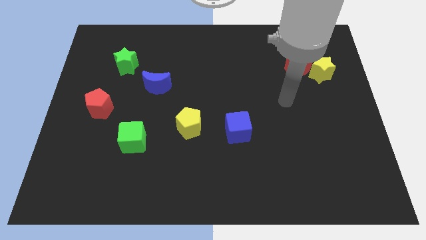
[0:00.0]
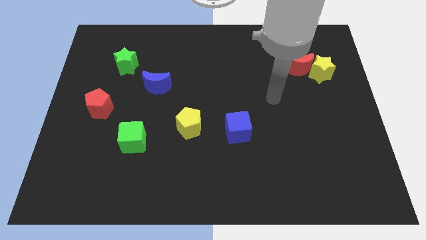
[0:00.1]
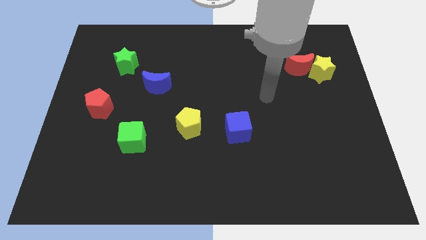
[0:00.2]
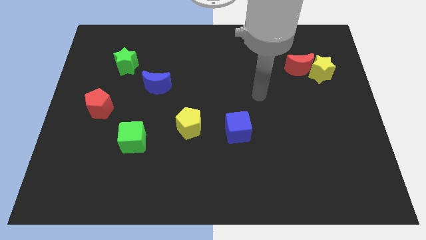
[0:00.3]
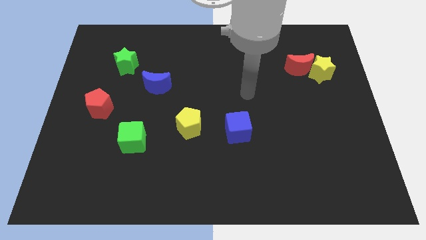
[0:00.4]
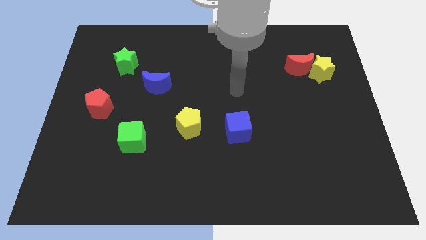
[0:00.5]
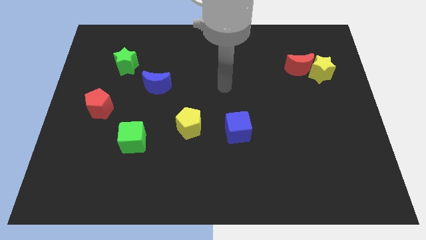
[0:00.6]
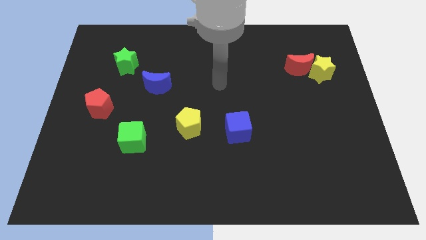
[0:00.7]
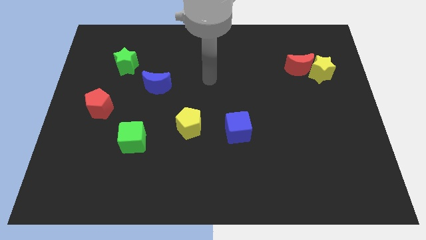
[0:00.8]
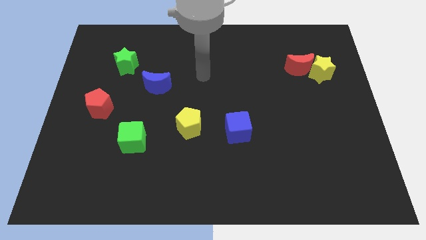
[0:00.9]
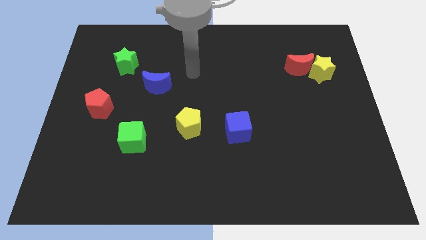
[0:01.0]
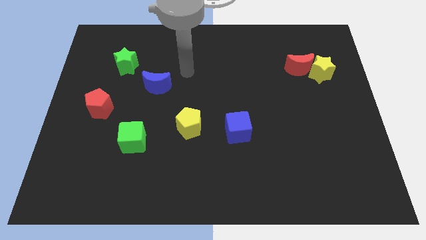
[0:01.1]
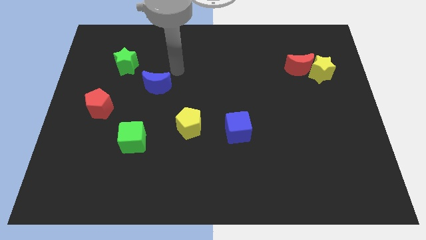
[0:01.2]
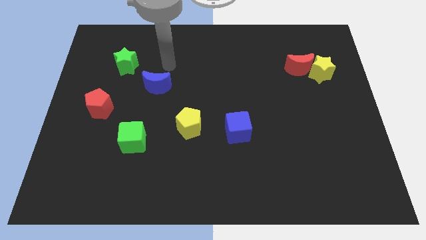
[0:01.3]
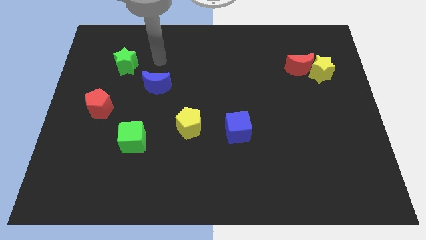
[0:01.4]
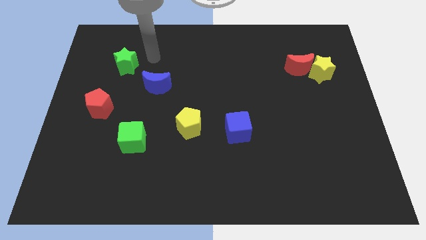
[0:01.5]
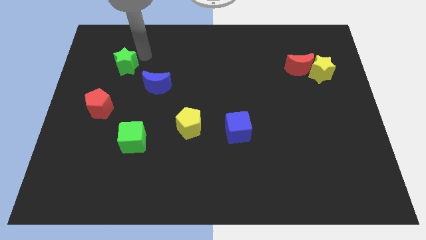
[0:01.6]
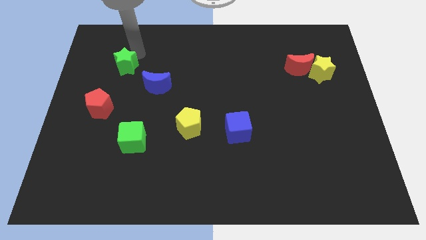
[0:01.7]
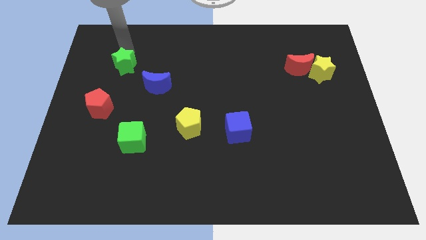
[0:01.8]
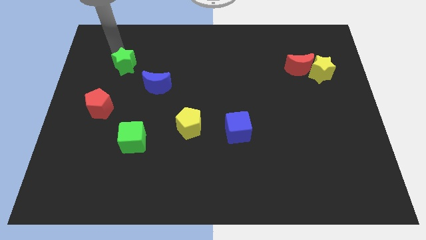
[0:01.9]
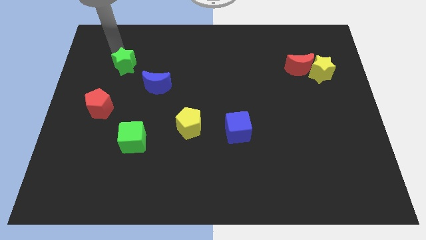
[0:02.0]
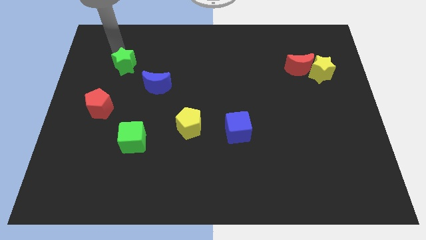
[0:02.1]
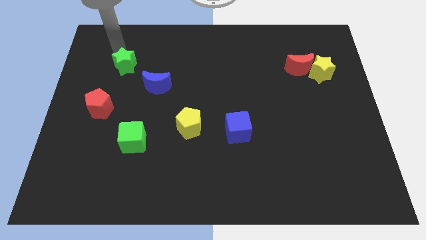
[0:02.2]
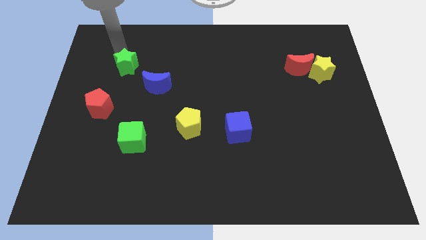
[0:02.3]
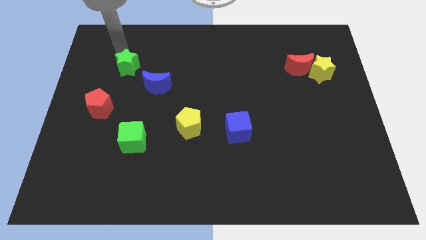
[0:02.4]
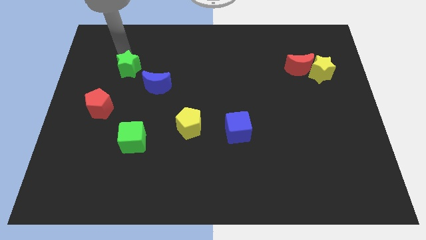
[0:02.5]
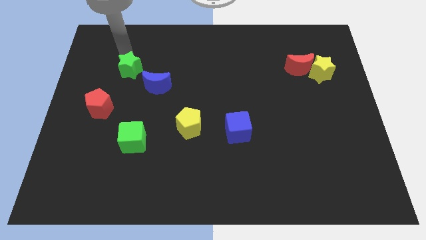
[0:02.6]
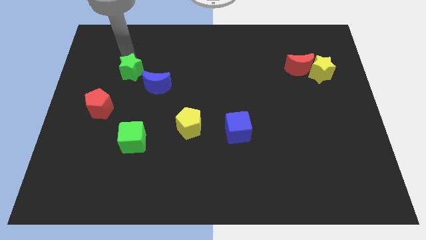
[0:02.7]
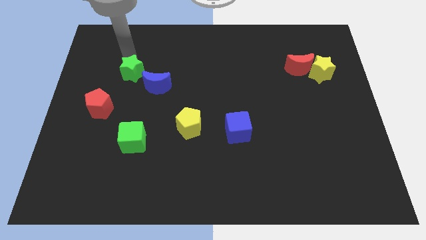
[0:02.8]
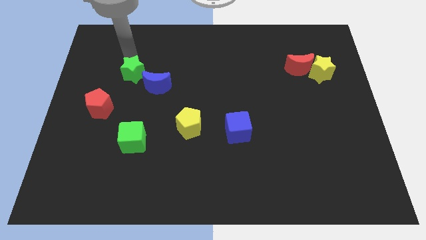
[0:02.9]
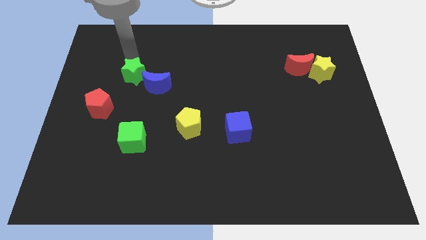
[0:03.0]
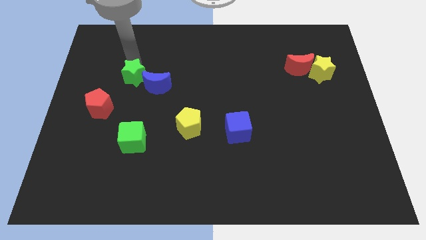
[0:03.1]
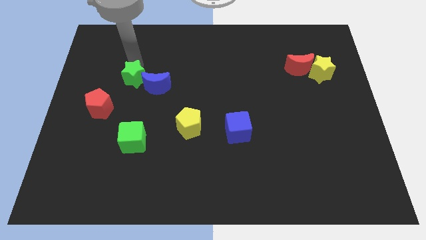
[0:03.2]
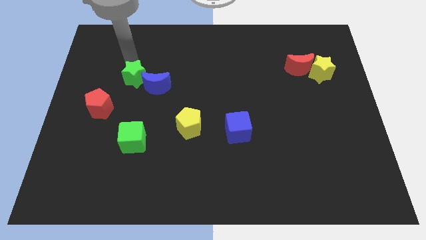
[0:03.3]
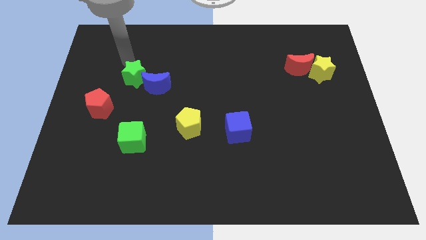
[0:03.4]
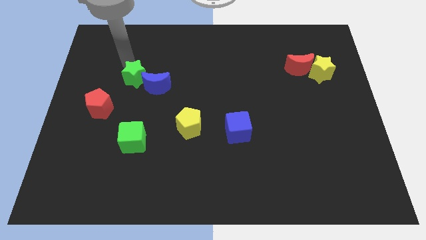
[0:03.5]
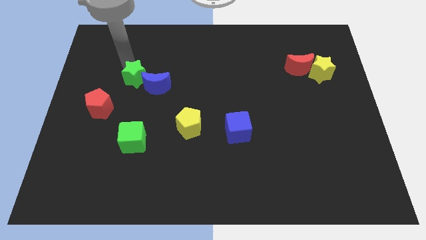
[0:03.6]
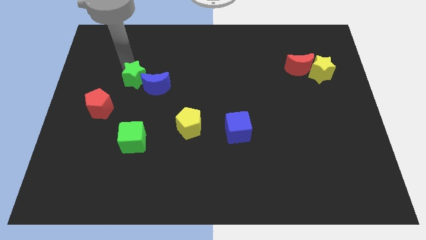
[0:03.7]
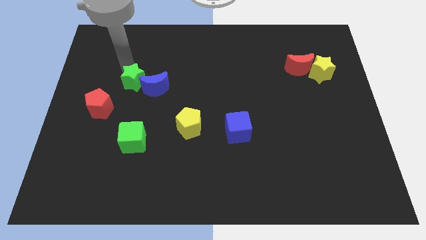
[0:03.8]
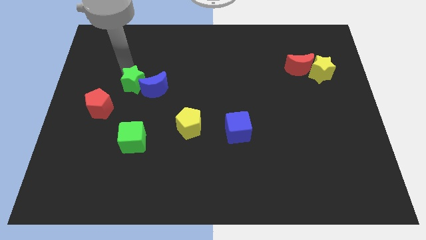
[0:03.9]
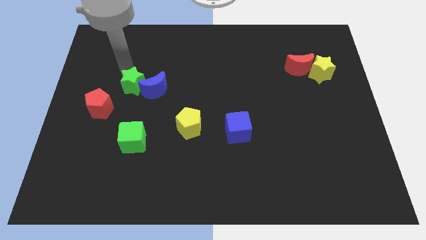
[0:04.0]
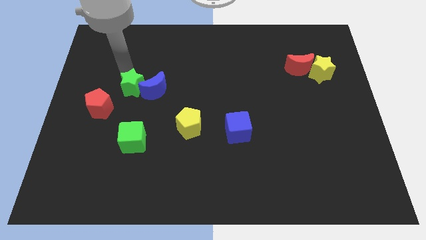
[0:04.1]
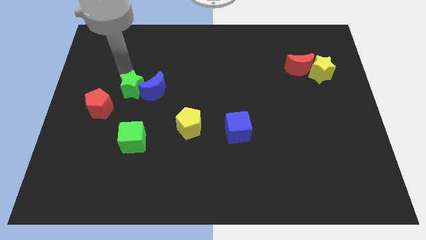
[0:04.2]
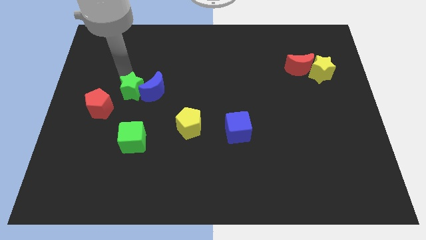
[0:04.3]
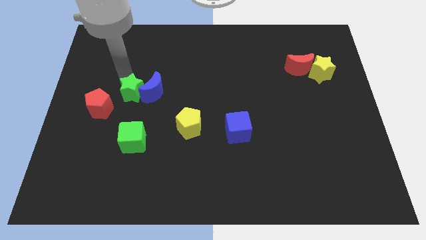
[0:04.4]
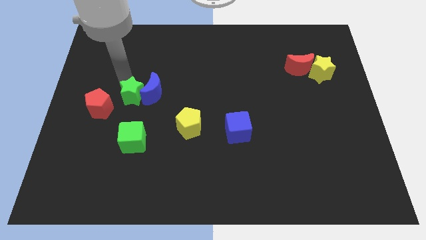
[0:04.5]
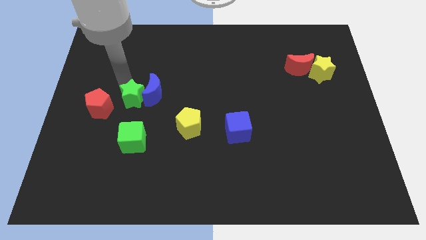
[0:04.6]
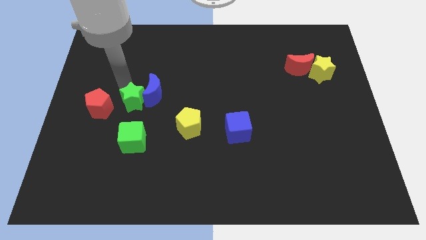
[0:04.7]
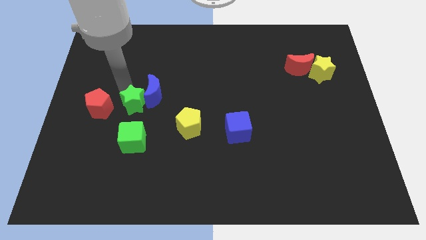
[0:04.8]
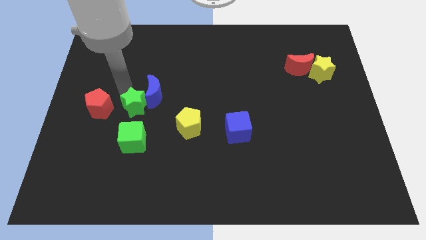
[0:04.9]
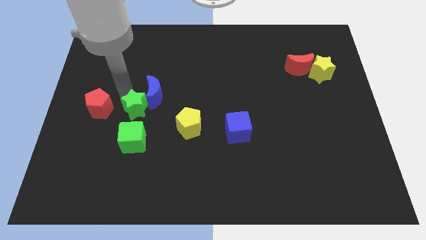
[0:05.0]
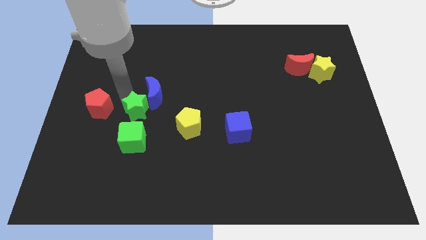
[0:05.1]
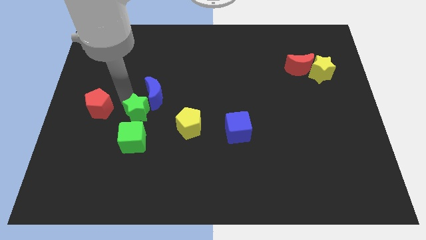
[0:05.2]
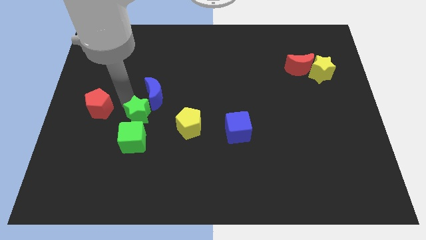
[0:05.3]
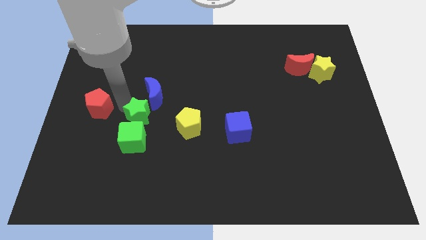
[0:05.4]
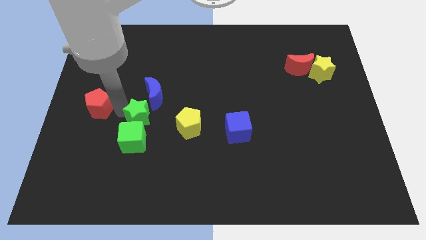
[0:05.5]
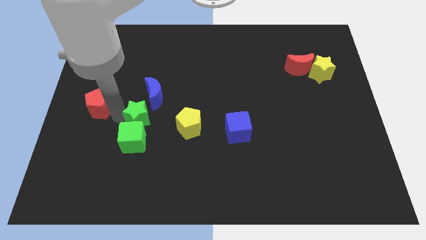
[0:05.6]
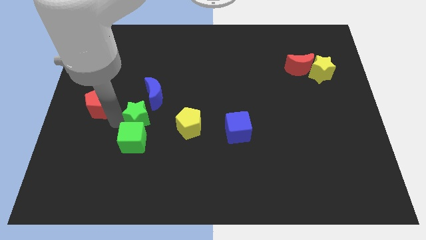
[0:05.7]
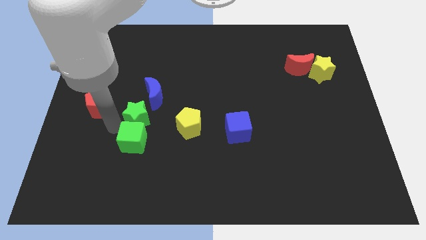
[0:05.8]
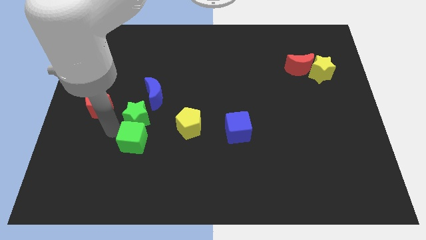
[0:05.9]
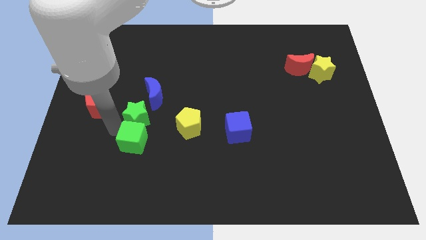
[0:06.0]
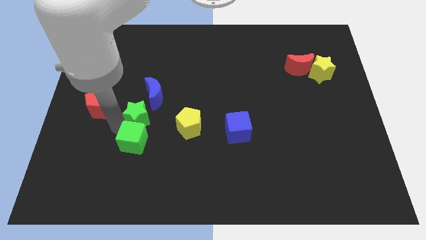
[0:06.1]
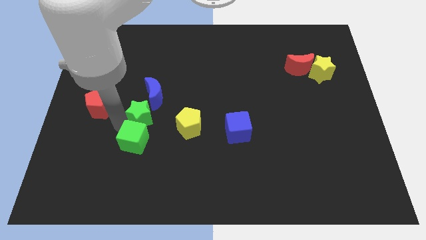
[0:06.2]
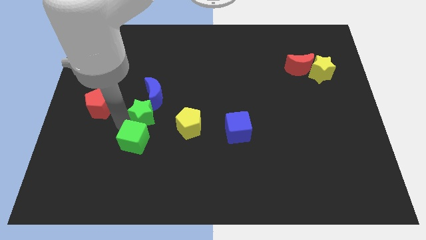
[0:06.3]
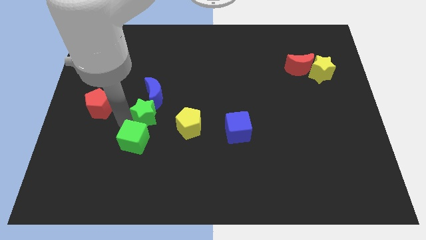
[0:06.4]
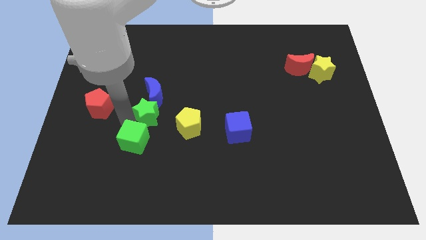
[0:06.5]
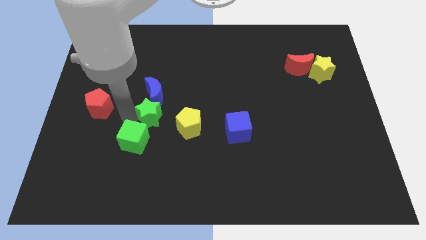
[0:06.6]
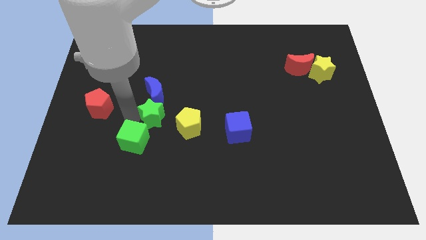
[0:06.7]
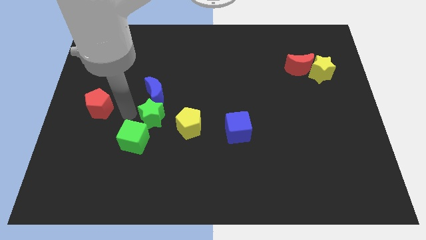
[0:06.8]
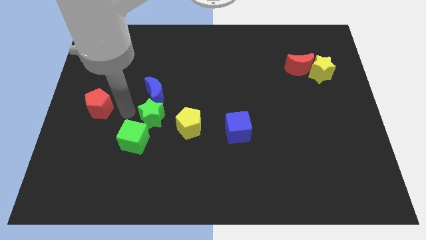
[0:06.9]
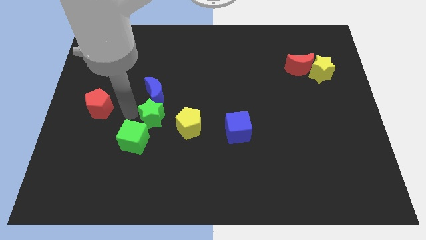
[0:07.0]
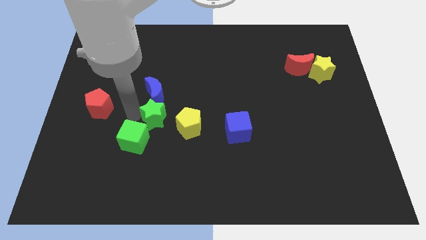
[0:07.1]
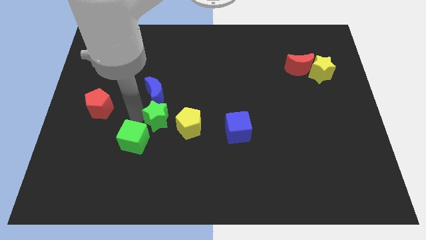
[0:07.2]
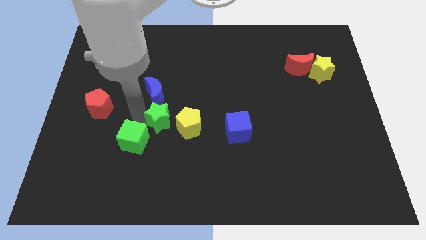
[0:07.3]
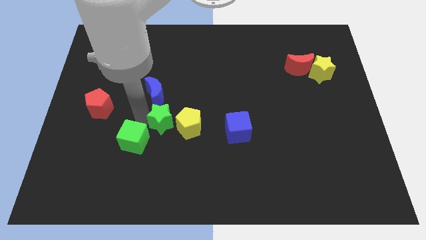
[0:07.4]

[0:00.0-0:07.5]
push the green star towards the yellow pentagon
